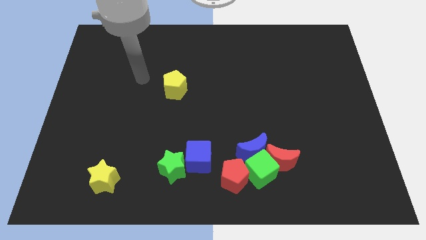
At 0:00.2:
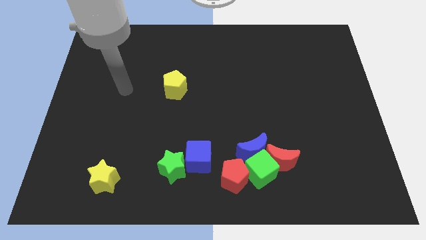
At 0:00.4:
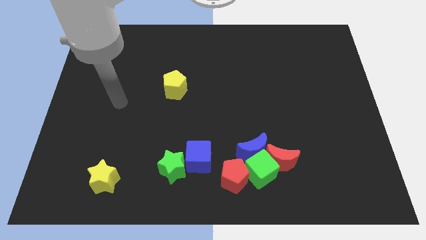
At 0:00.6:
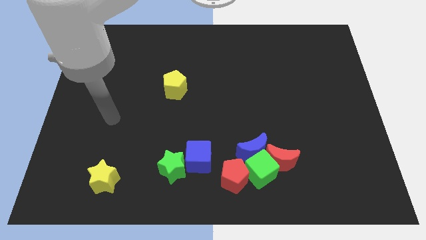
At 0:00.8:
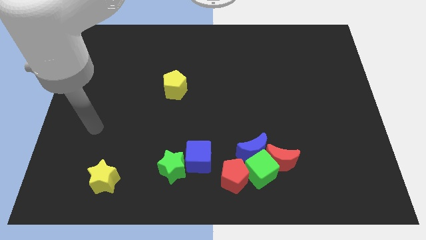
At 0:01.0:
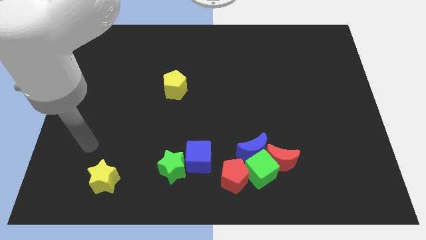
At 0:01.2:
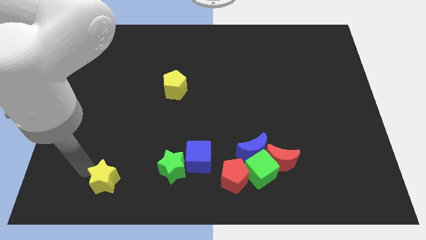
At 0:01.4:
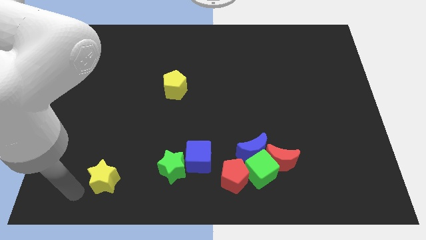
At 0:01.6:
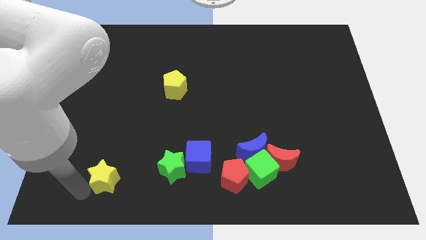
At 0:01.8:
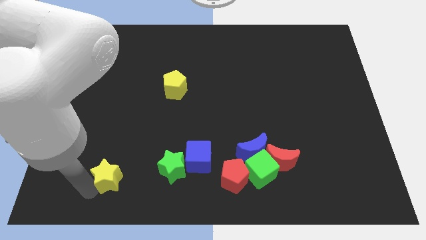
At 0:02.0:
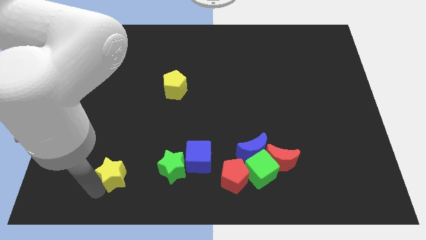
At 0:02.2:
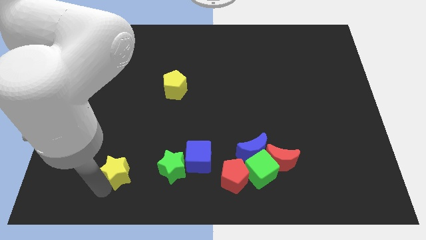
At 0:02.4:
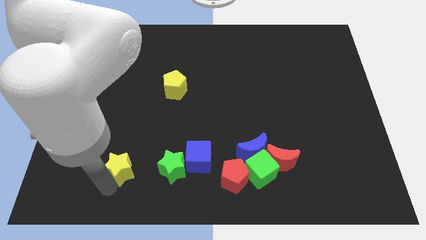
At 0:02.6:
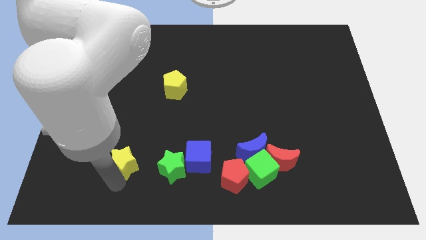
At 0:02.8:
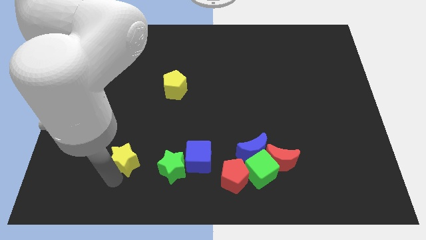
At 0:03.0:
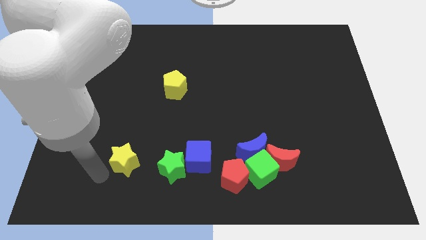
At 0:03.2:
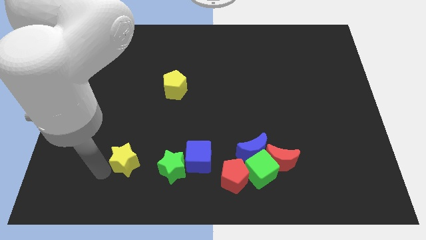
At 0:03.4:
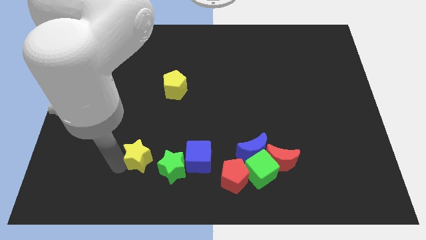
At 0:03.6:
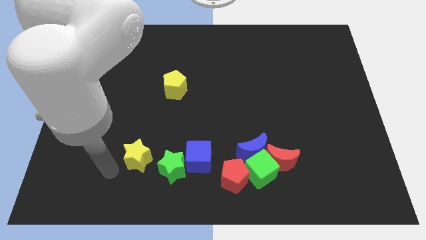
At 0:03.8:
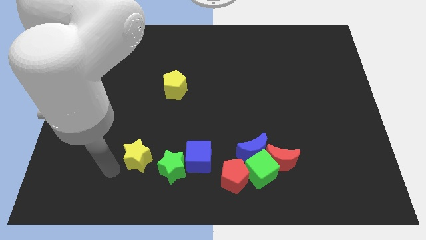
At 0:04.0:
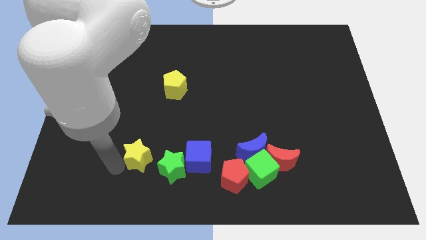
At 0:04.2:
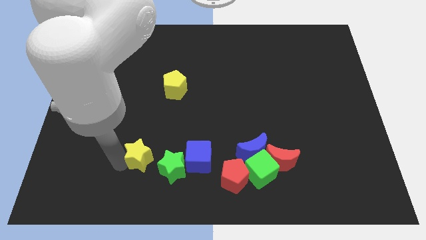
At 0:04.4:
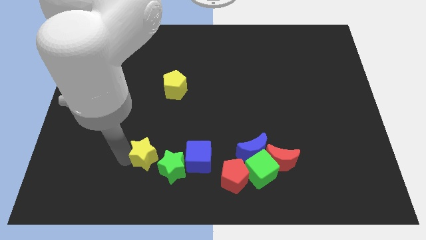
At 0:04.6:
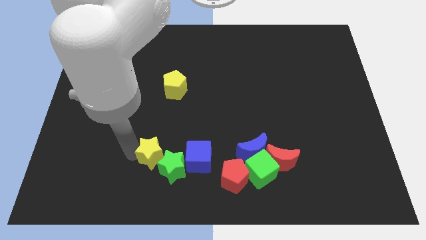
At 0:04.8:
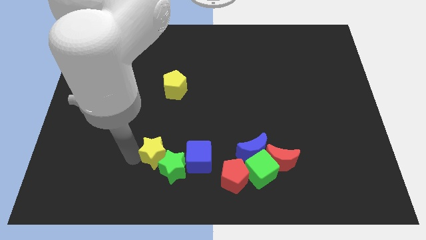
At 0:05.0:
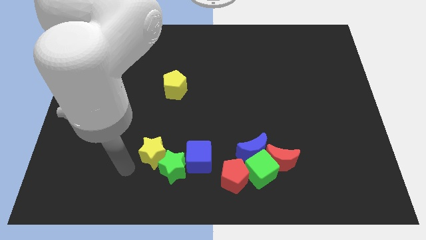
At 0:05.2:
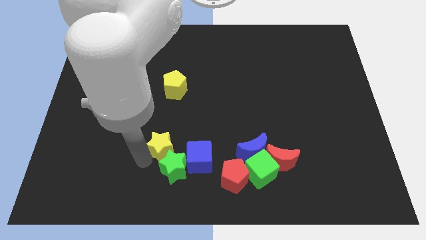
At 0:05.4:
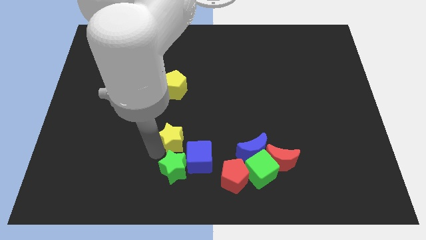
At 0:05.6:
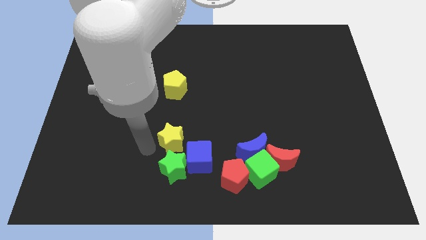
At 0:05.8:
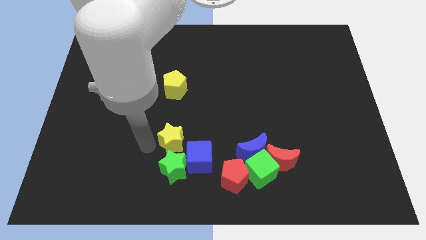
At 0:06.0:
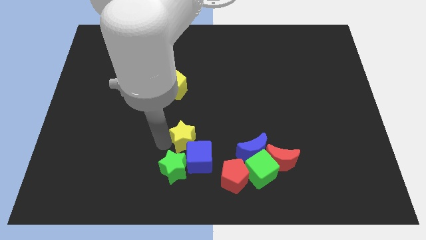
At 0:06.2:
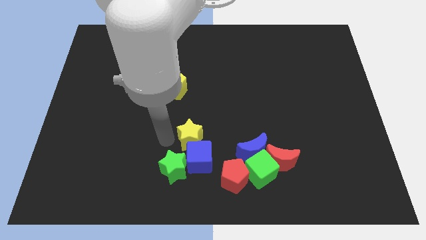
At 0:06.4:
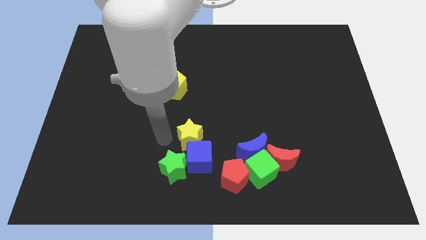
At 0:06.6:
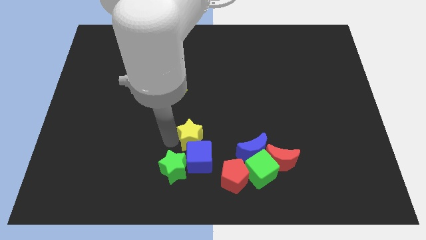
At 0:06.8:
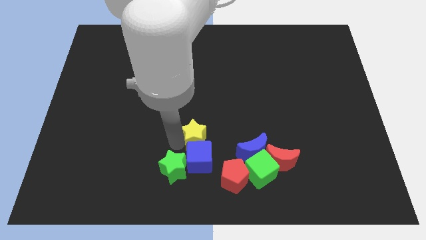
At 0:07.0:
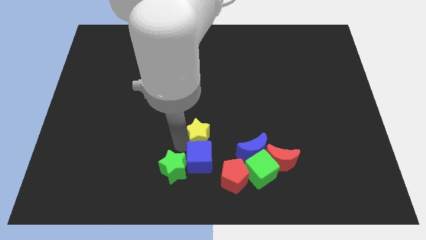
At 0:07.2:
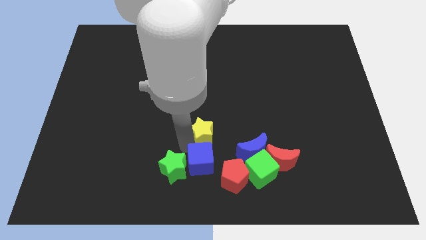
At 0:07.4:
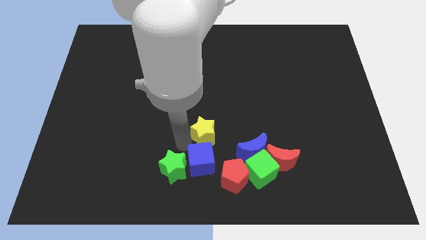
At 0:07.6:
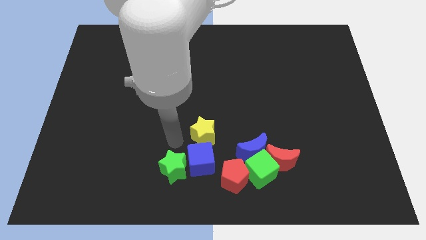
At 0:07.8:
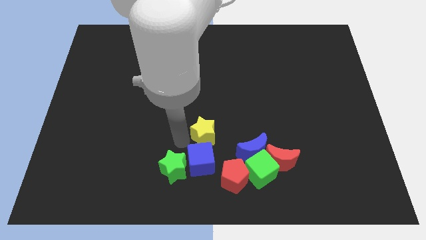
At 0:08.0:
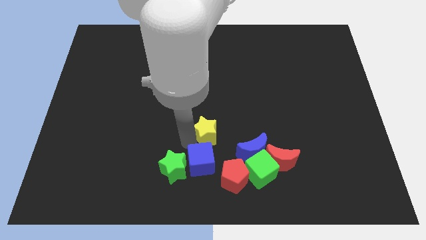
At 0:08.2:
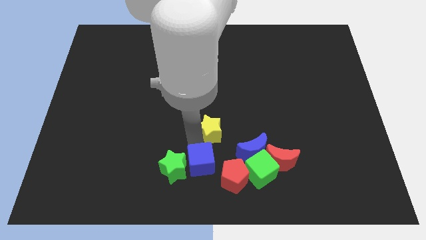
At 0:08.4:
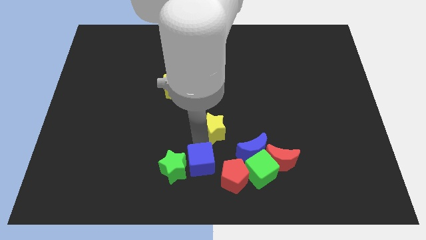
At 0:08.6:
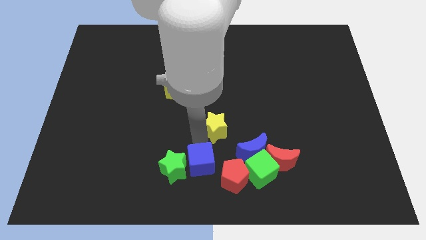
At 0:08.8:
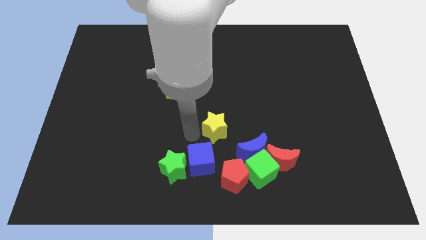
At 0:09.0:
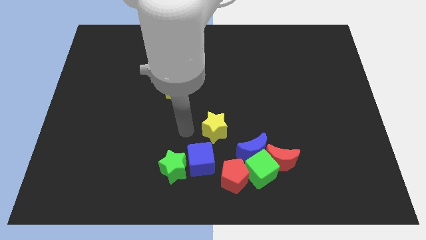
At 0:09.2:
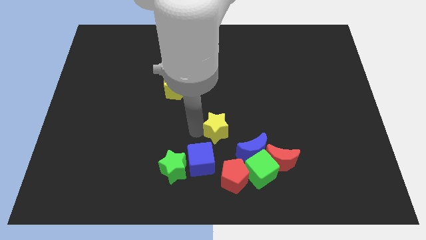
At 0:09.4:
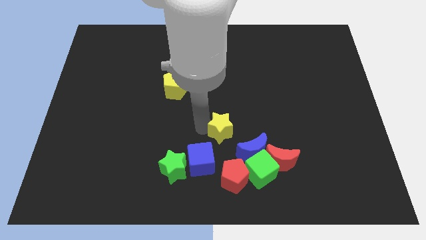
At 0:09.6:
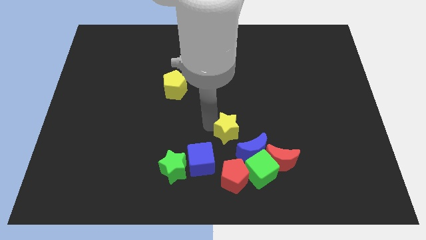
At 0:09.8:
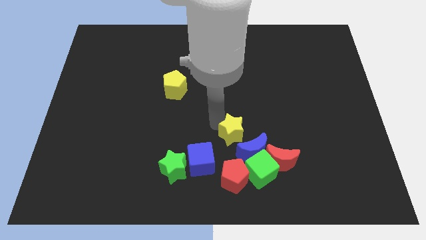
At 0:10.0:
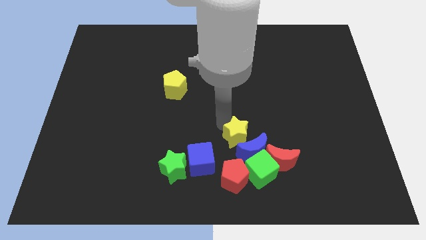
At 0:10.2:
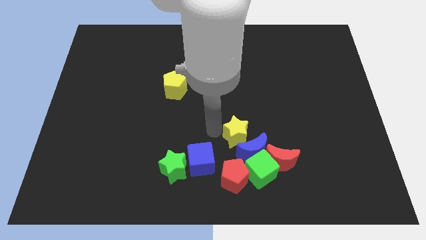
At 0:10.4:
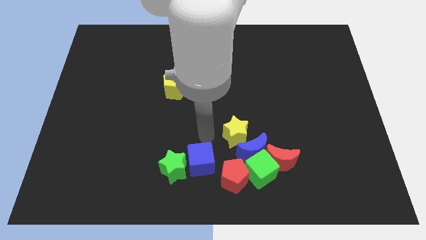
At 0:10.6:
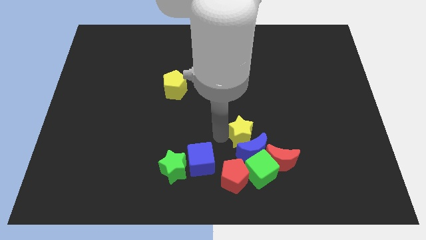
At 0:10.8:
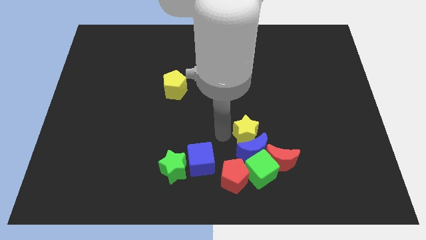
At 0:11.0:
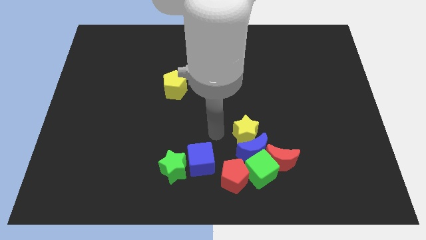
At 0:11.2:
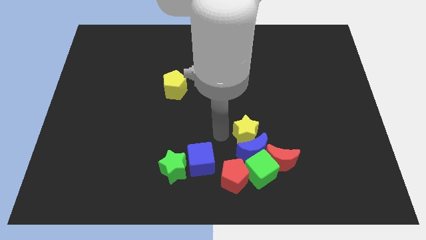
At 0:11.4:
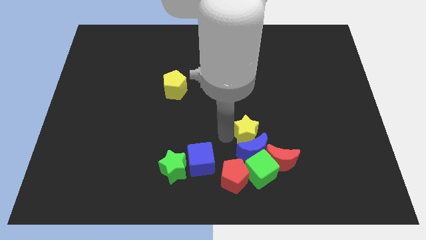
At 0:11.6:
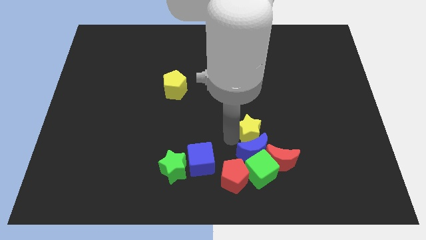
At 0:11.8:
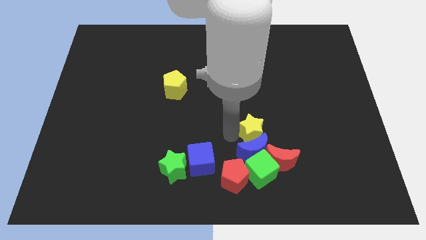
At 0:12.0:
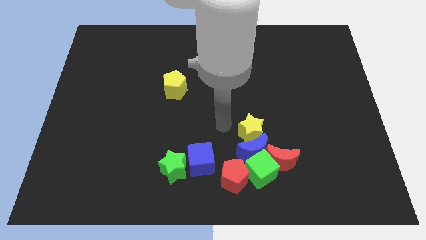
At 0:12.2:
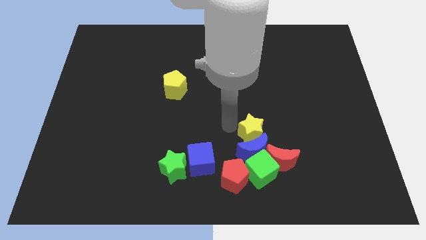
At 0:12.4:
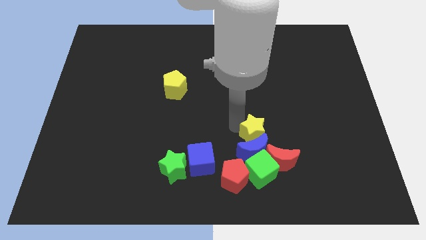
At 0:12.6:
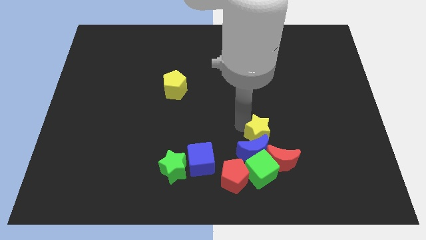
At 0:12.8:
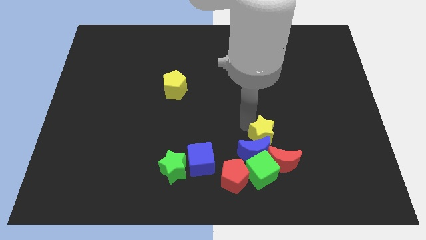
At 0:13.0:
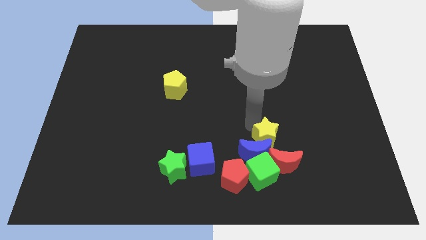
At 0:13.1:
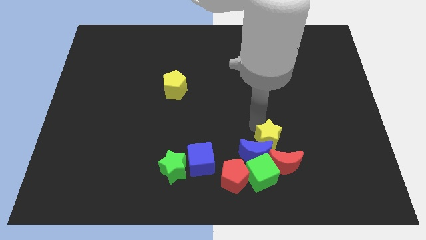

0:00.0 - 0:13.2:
put the yellow star just right of the blue moon

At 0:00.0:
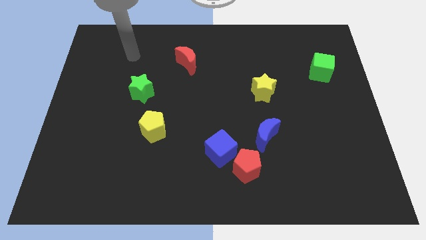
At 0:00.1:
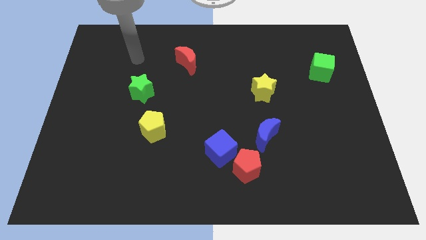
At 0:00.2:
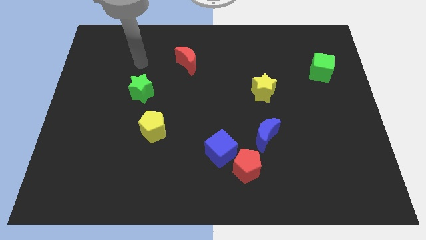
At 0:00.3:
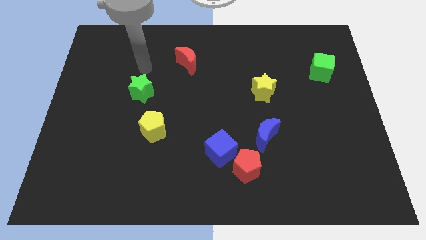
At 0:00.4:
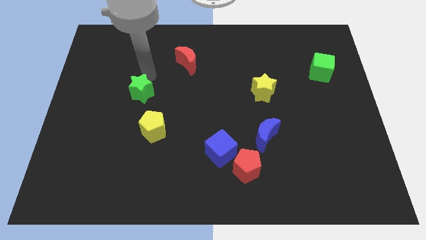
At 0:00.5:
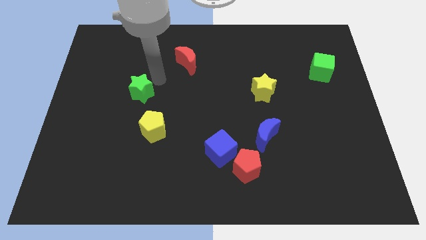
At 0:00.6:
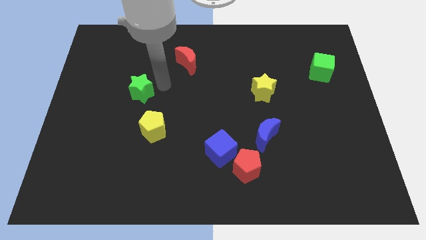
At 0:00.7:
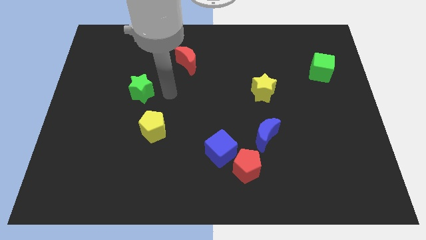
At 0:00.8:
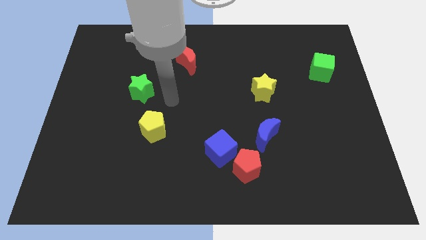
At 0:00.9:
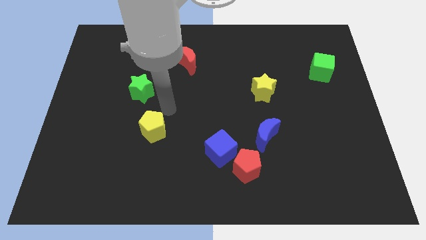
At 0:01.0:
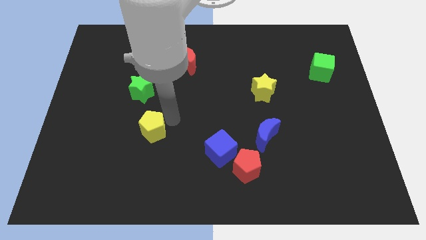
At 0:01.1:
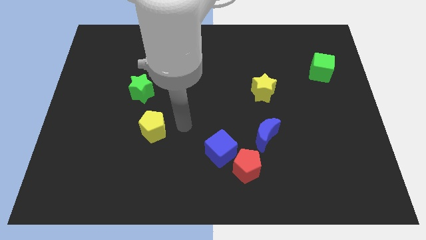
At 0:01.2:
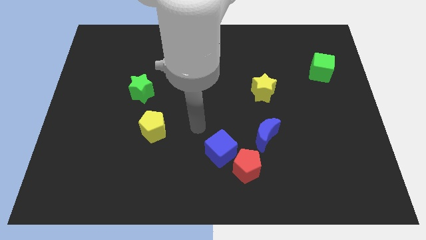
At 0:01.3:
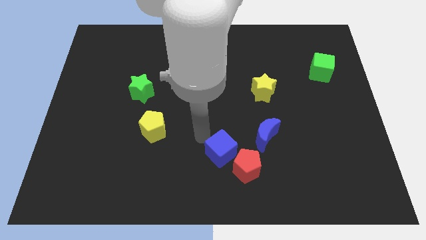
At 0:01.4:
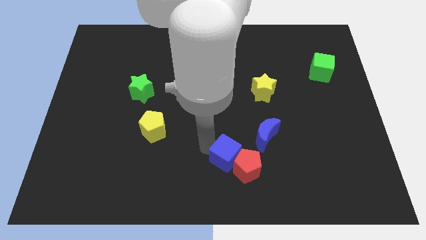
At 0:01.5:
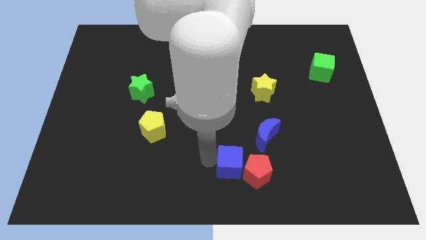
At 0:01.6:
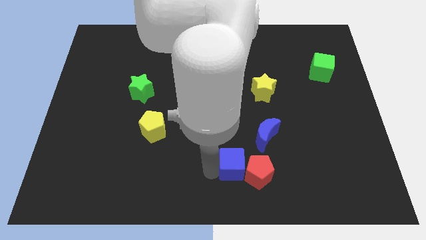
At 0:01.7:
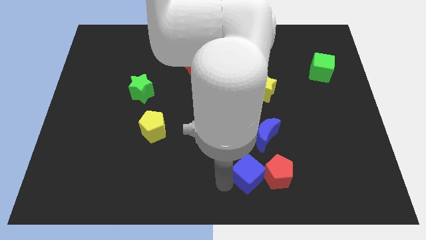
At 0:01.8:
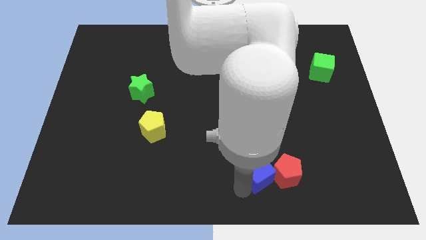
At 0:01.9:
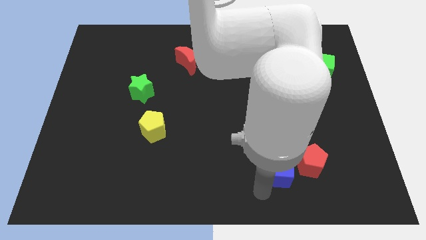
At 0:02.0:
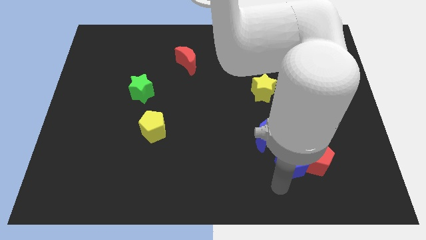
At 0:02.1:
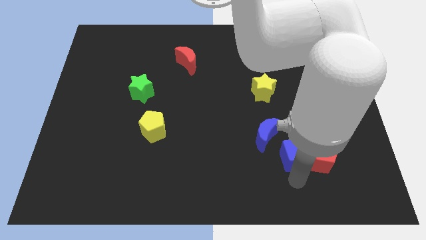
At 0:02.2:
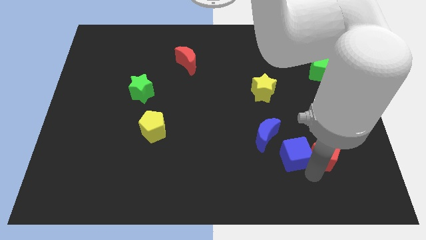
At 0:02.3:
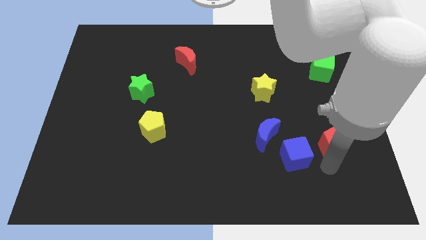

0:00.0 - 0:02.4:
move the red pentagon right of the blue moon
